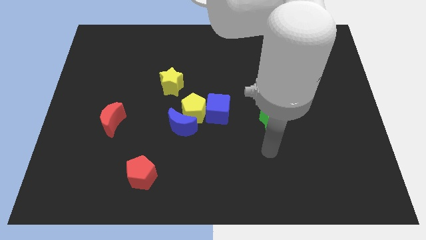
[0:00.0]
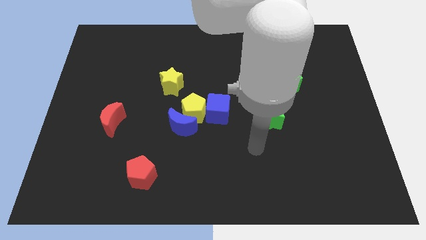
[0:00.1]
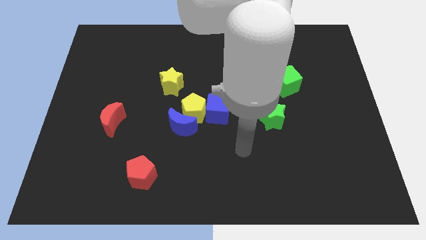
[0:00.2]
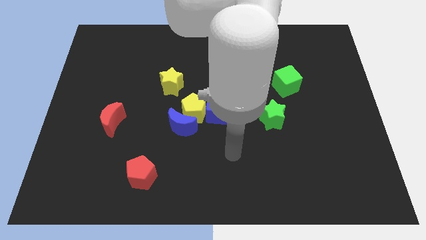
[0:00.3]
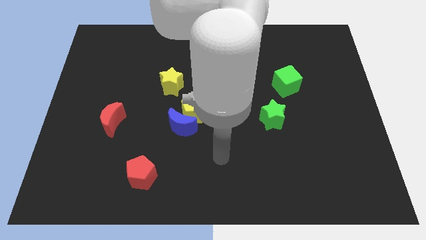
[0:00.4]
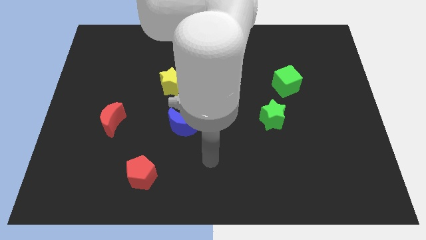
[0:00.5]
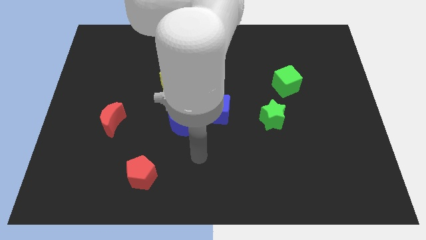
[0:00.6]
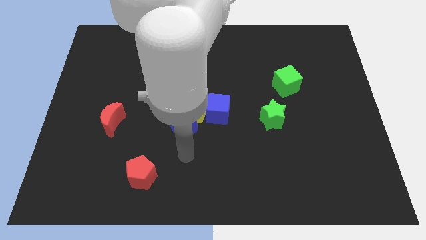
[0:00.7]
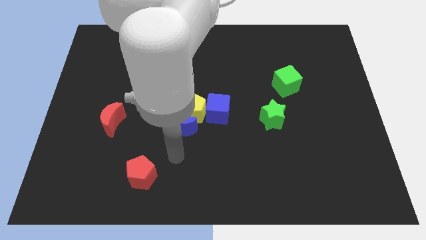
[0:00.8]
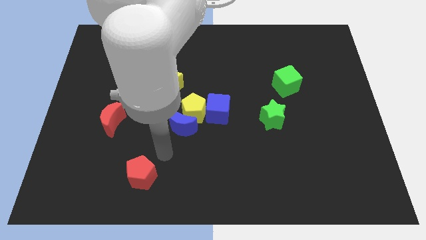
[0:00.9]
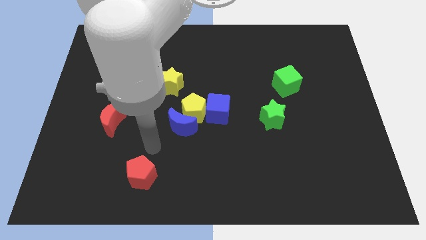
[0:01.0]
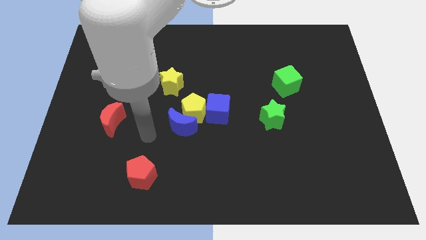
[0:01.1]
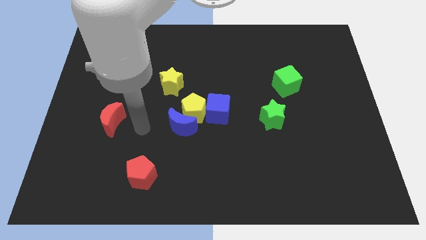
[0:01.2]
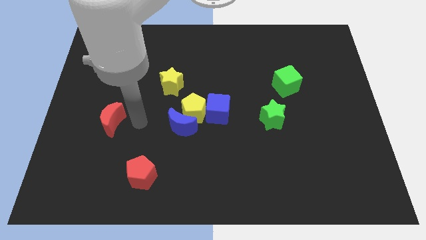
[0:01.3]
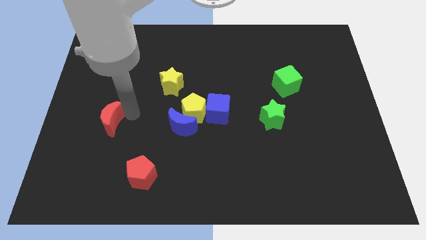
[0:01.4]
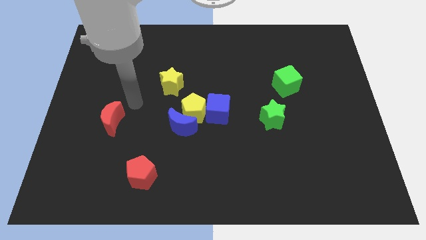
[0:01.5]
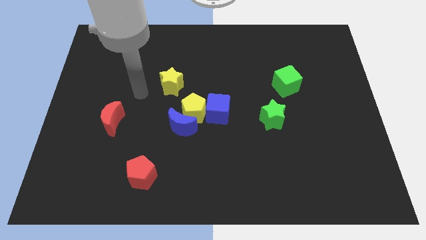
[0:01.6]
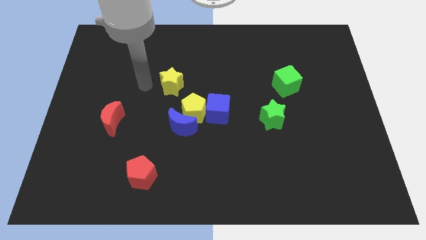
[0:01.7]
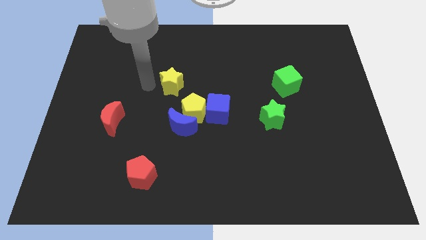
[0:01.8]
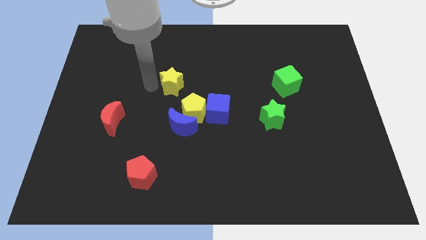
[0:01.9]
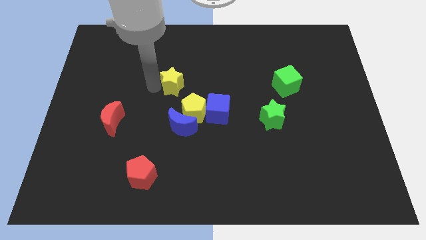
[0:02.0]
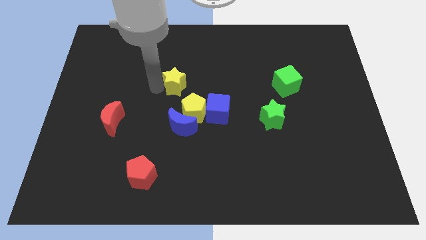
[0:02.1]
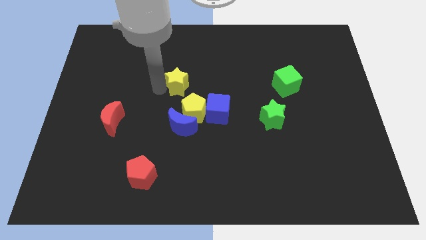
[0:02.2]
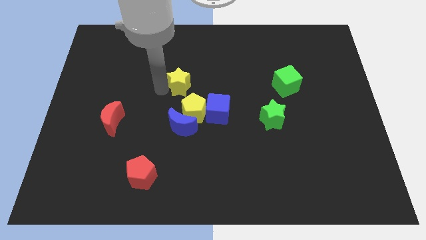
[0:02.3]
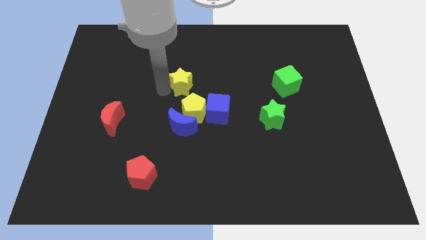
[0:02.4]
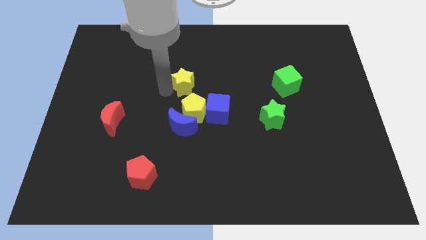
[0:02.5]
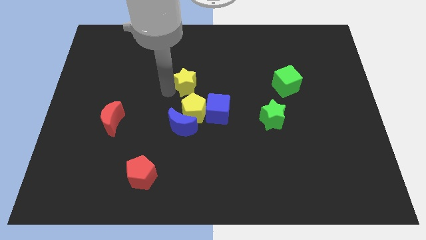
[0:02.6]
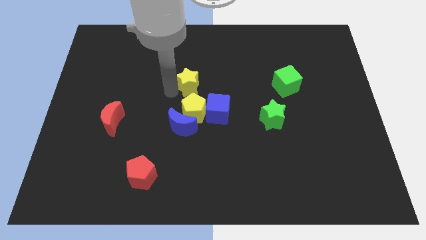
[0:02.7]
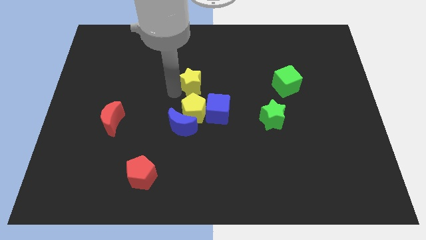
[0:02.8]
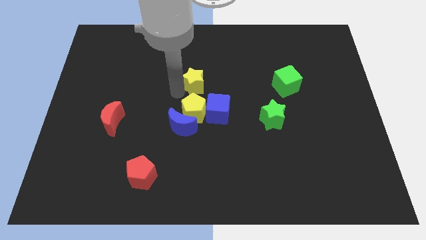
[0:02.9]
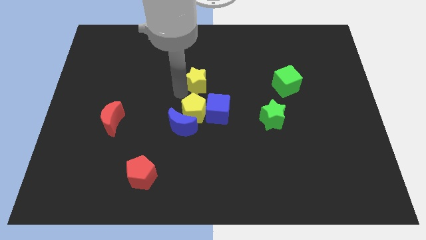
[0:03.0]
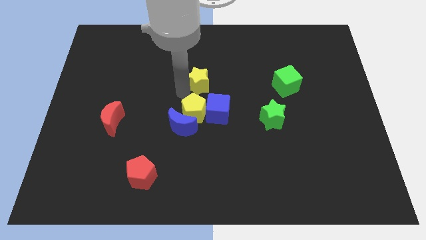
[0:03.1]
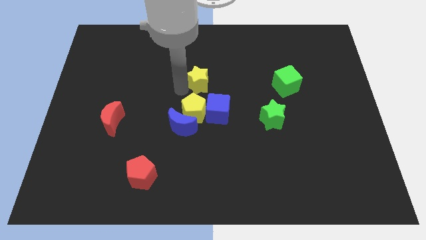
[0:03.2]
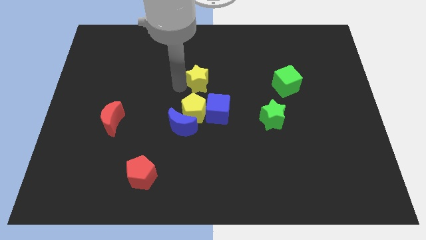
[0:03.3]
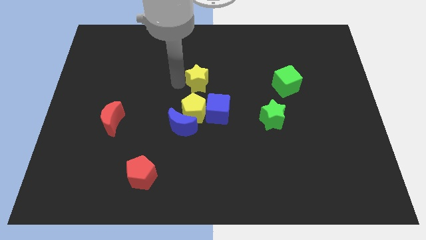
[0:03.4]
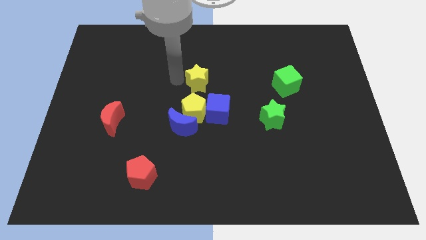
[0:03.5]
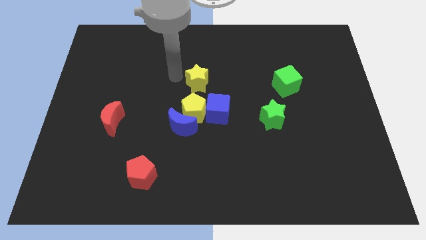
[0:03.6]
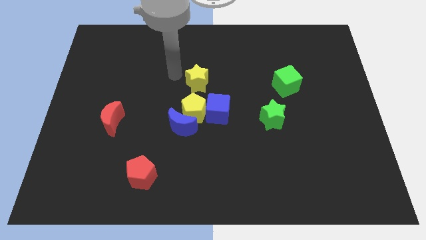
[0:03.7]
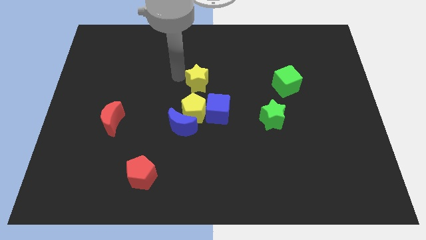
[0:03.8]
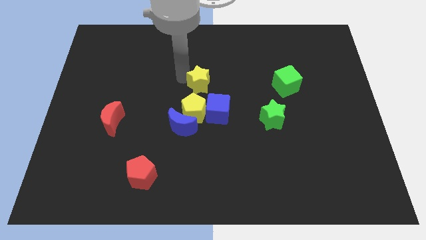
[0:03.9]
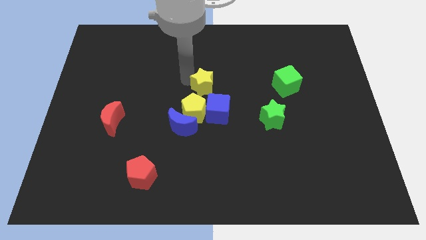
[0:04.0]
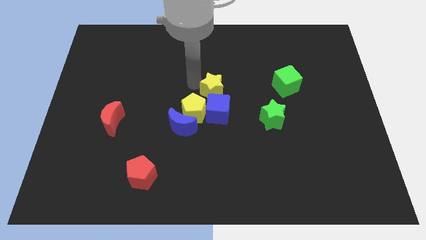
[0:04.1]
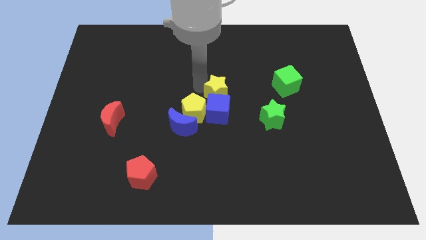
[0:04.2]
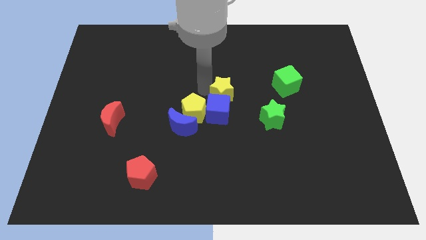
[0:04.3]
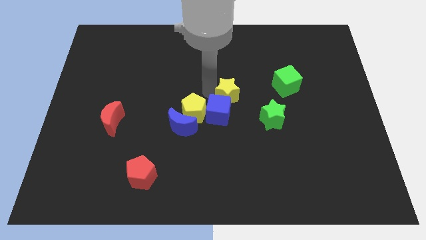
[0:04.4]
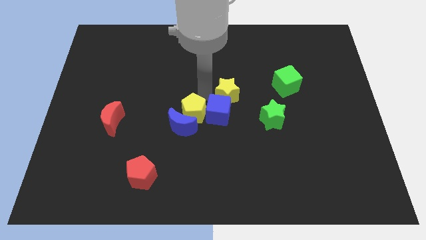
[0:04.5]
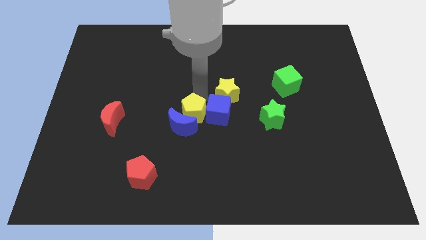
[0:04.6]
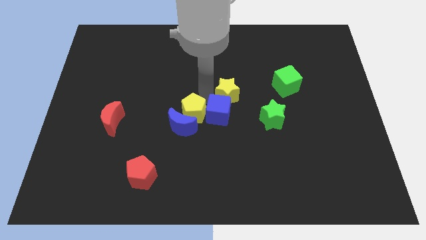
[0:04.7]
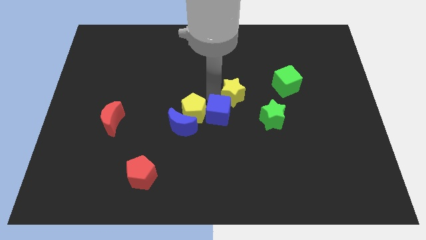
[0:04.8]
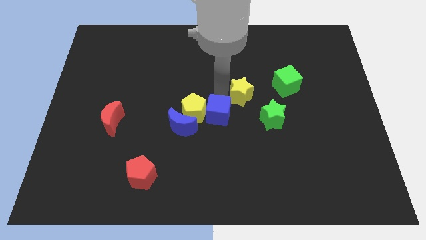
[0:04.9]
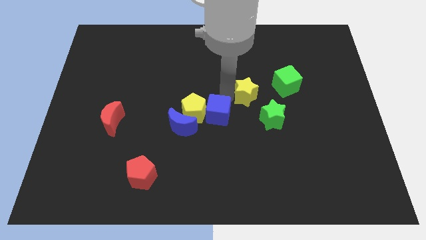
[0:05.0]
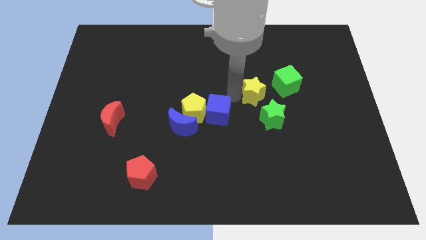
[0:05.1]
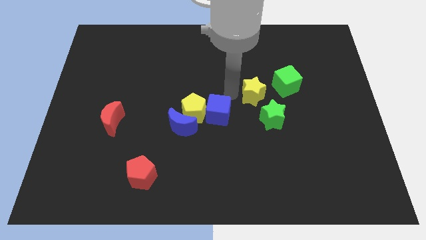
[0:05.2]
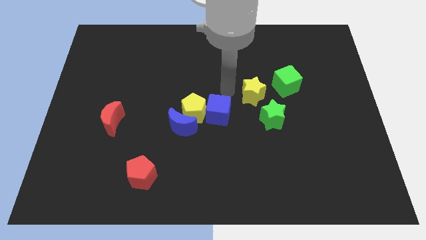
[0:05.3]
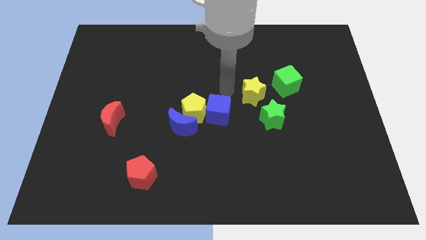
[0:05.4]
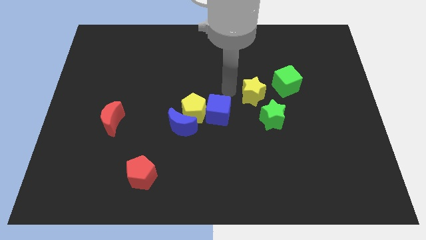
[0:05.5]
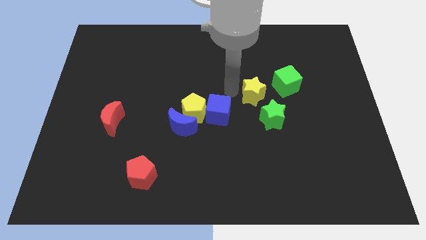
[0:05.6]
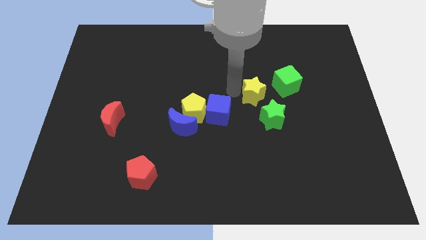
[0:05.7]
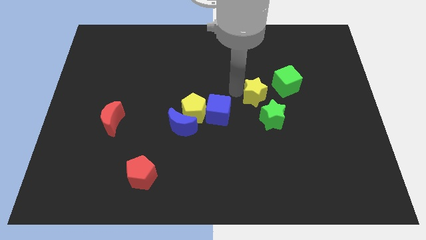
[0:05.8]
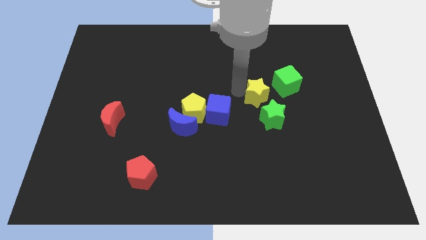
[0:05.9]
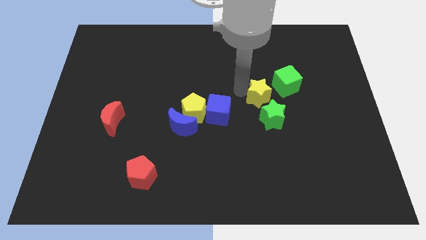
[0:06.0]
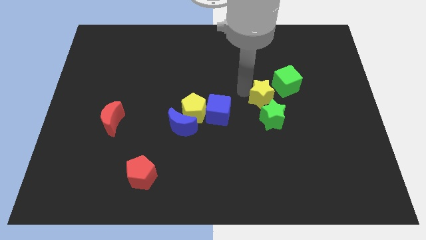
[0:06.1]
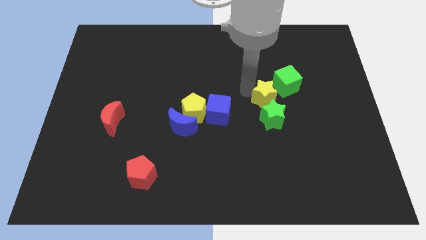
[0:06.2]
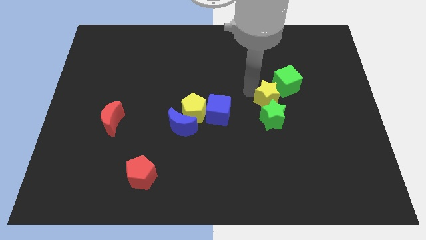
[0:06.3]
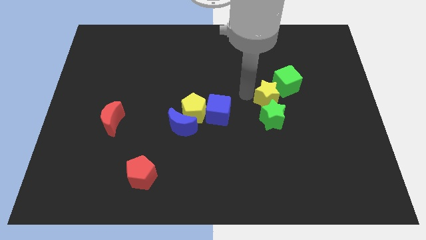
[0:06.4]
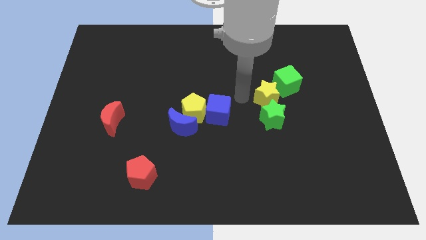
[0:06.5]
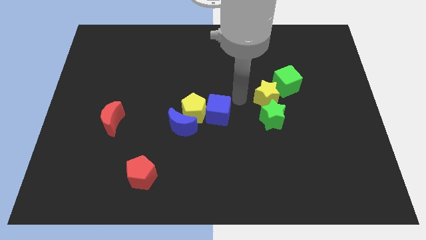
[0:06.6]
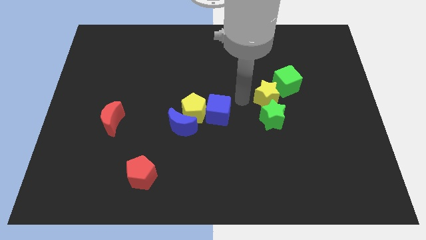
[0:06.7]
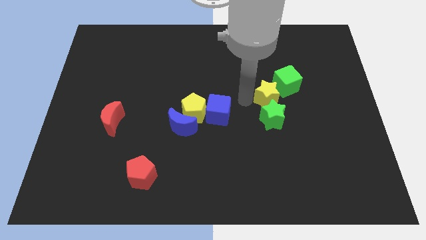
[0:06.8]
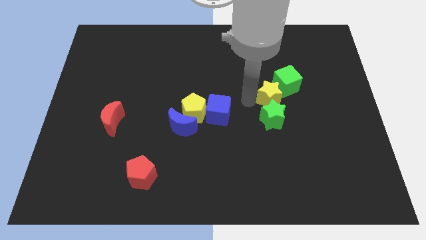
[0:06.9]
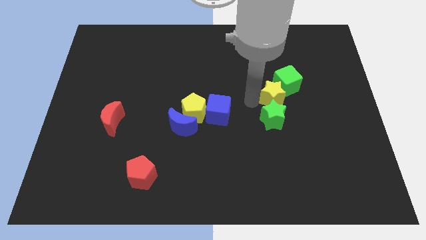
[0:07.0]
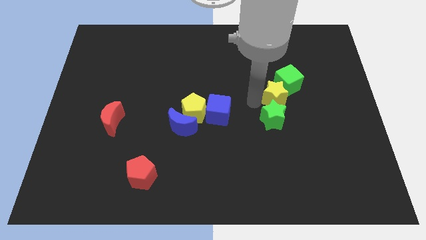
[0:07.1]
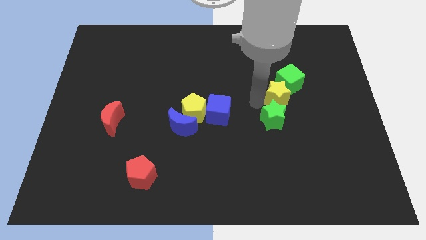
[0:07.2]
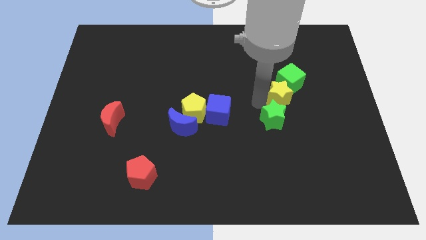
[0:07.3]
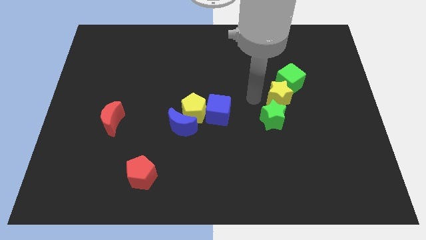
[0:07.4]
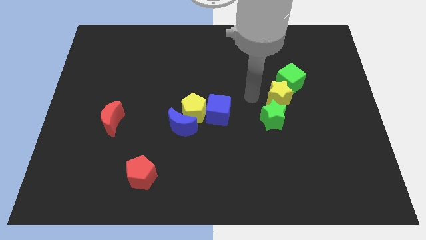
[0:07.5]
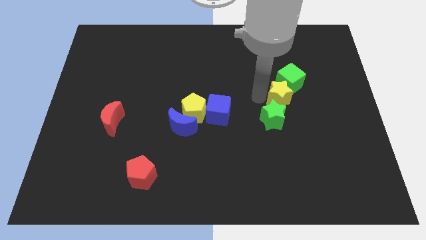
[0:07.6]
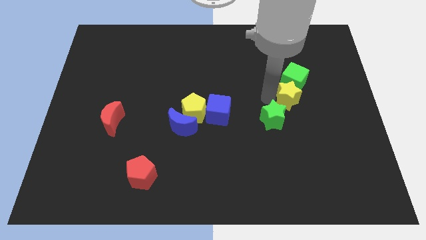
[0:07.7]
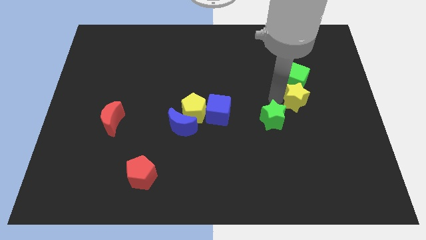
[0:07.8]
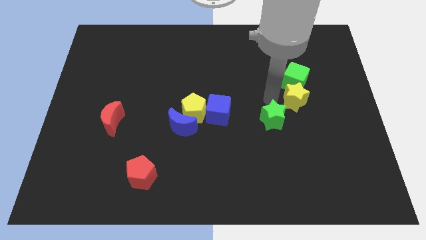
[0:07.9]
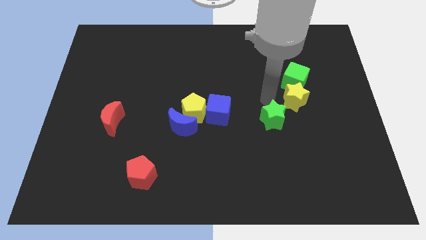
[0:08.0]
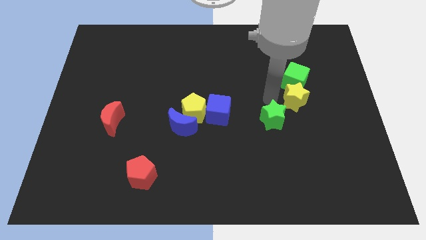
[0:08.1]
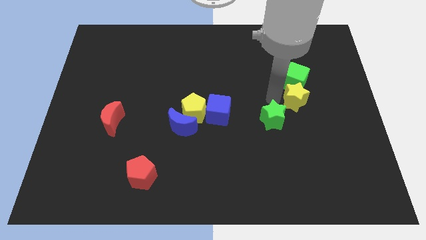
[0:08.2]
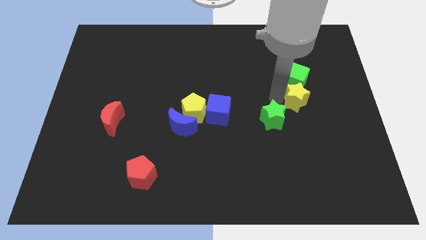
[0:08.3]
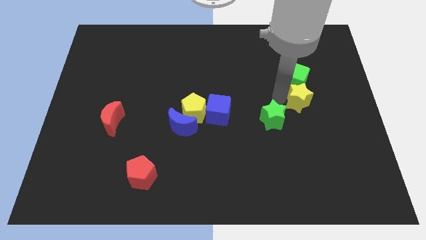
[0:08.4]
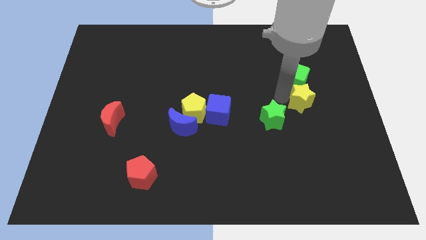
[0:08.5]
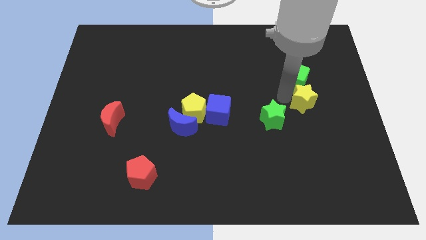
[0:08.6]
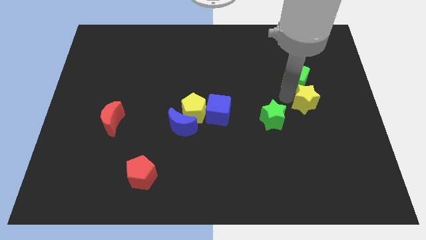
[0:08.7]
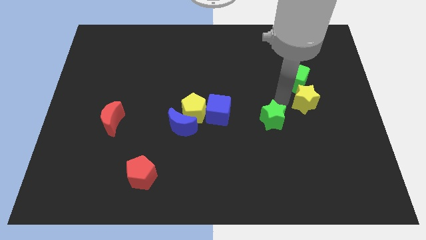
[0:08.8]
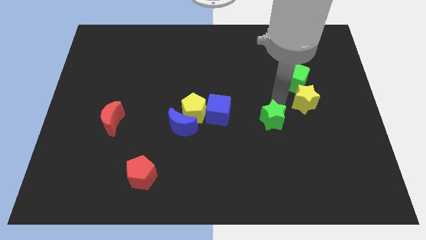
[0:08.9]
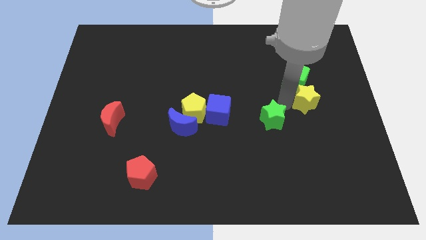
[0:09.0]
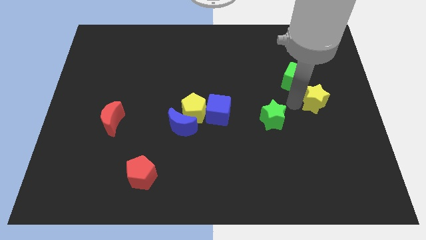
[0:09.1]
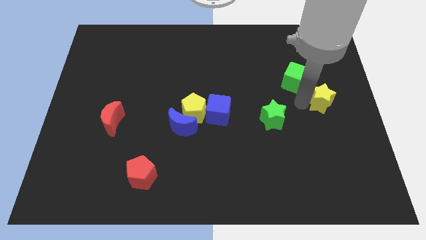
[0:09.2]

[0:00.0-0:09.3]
put the yellow star to the right side
